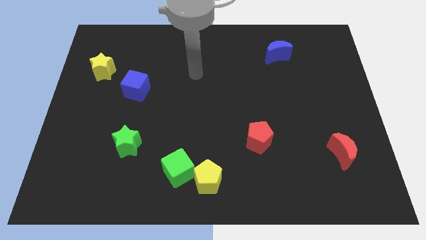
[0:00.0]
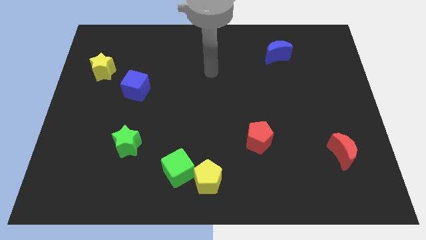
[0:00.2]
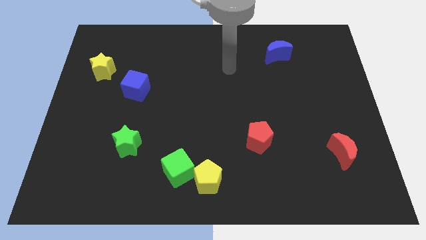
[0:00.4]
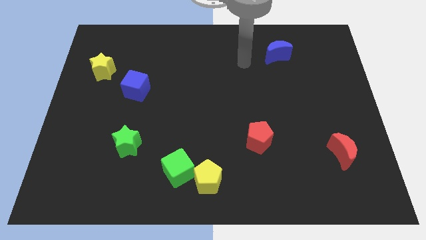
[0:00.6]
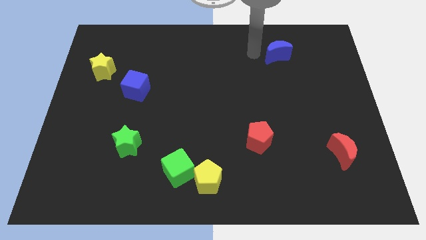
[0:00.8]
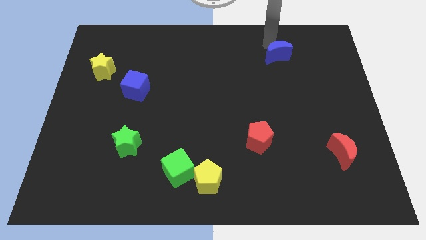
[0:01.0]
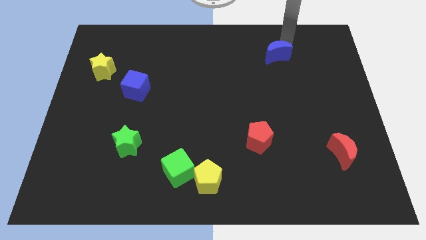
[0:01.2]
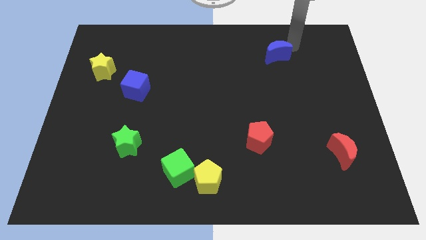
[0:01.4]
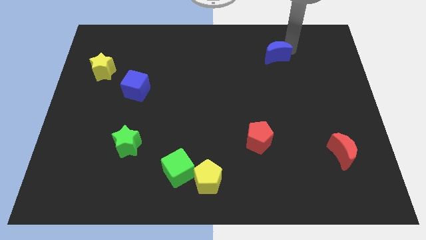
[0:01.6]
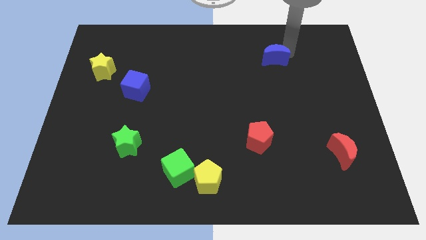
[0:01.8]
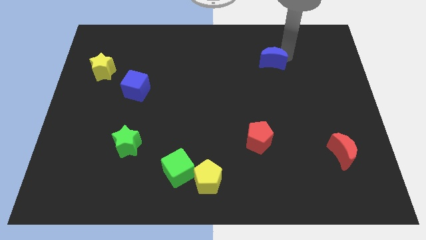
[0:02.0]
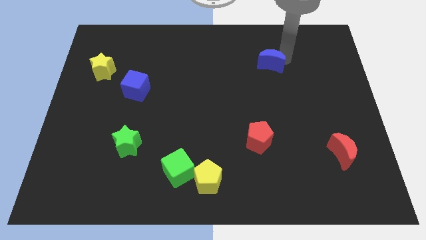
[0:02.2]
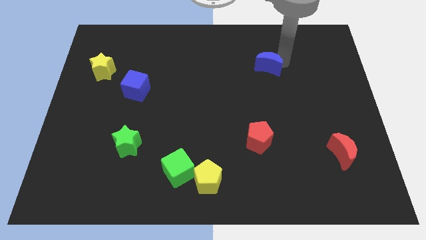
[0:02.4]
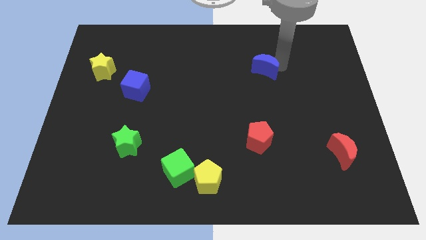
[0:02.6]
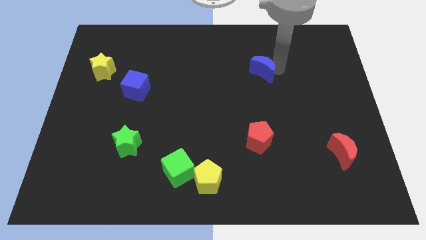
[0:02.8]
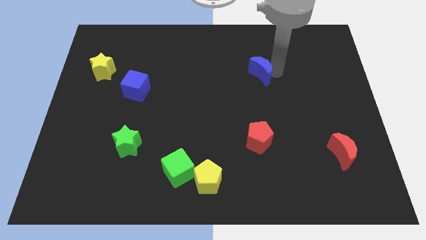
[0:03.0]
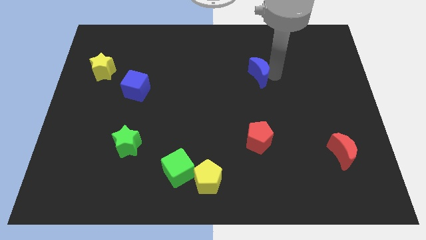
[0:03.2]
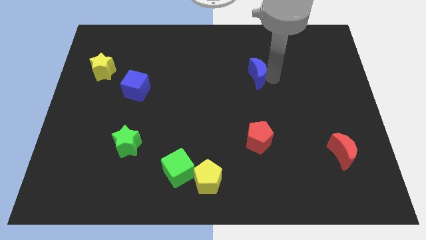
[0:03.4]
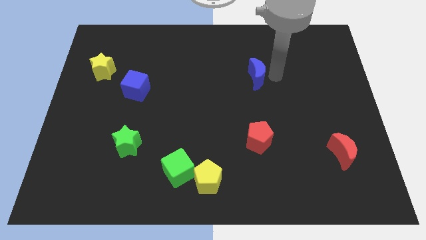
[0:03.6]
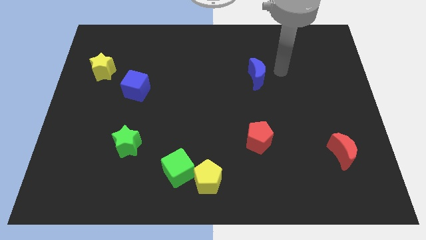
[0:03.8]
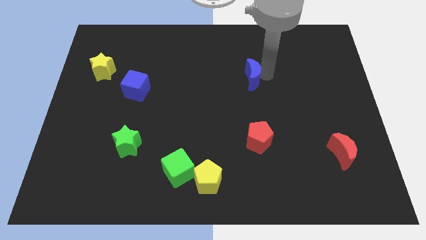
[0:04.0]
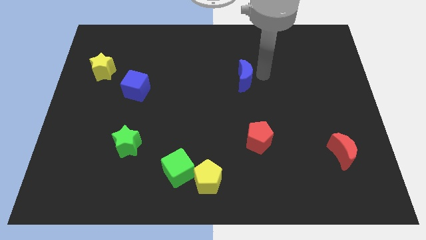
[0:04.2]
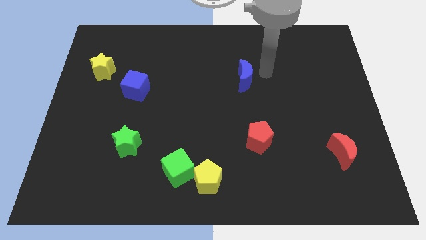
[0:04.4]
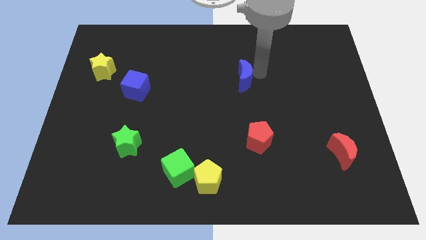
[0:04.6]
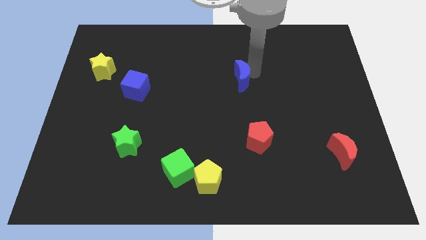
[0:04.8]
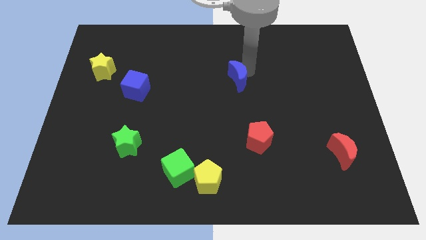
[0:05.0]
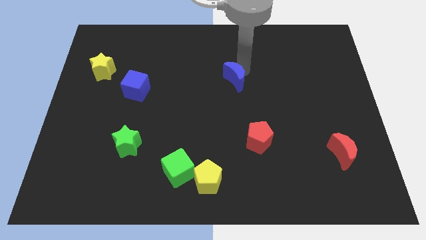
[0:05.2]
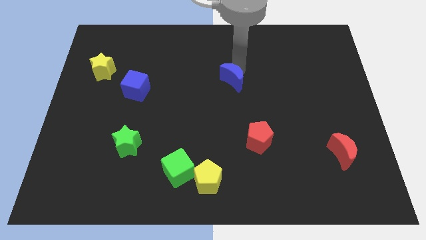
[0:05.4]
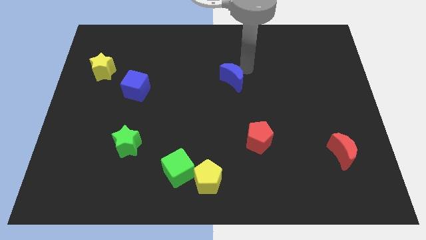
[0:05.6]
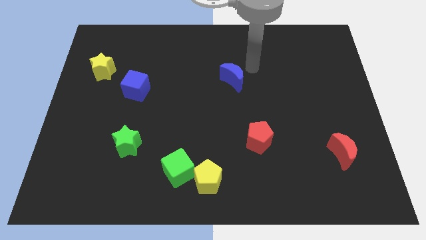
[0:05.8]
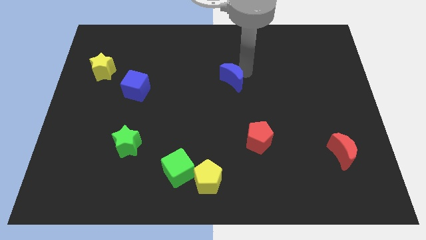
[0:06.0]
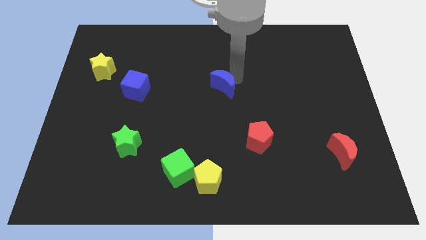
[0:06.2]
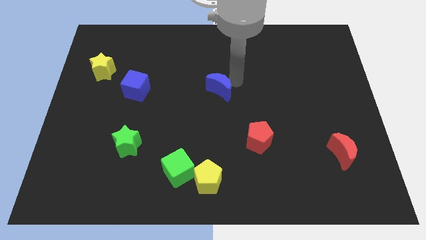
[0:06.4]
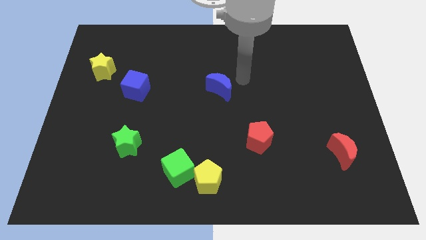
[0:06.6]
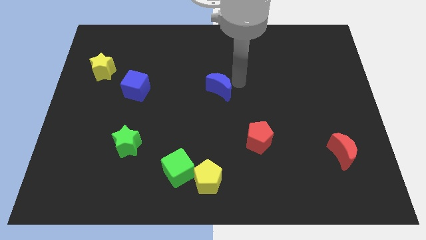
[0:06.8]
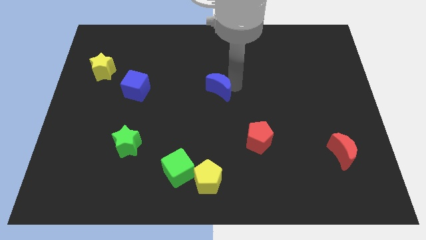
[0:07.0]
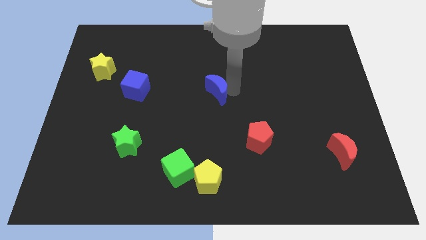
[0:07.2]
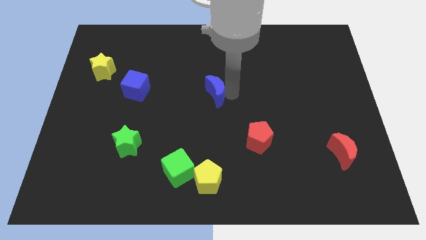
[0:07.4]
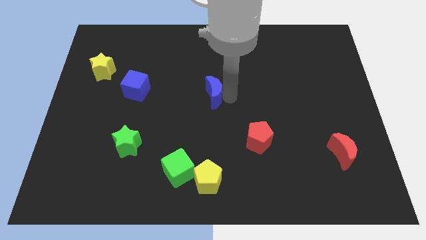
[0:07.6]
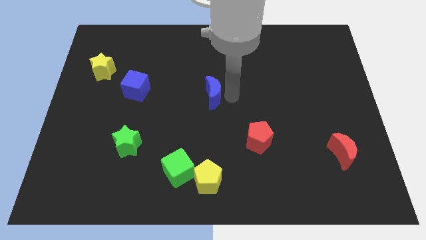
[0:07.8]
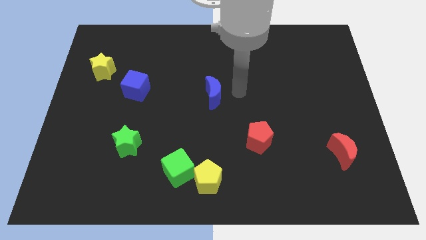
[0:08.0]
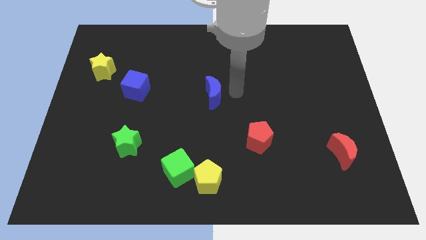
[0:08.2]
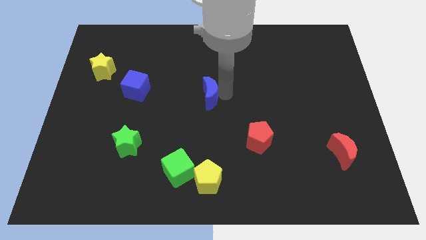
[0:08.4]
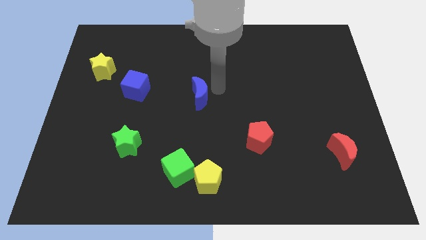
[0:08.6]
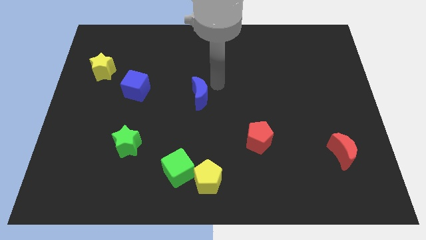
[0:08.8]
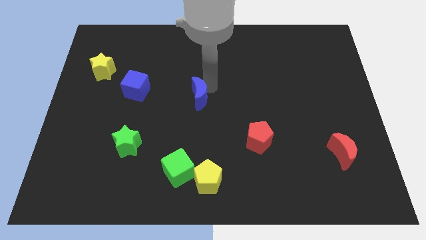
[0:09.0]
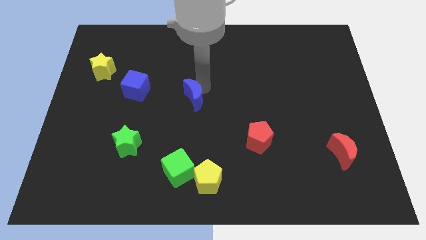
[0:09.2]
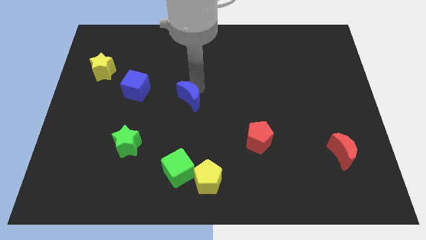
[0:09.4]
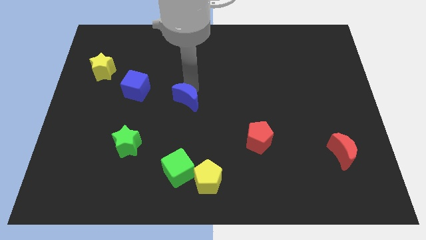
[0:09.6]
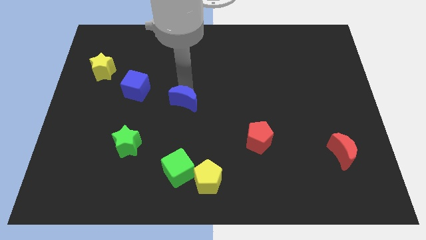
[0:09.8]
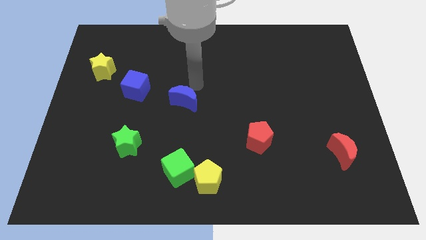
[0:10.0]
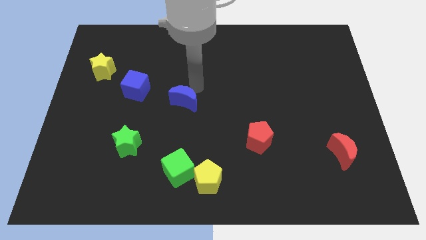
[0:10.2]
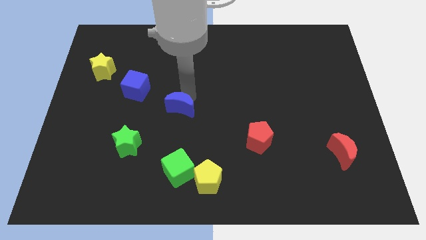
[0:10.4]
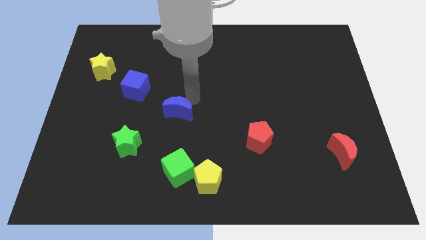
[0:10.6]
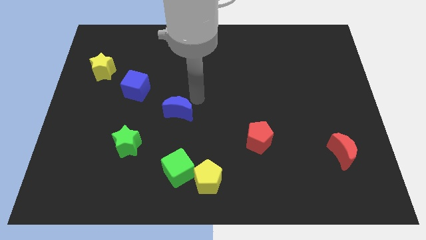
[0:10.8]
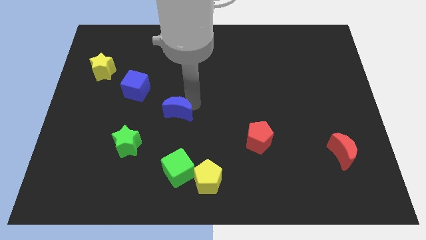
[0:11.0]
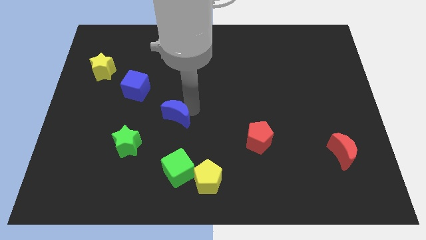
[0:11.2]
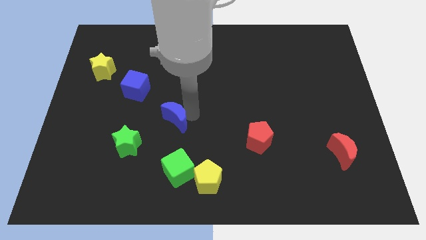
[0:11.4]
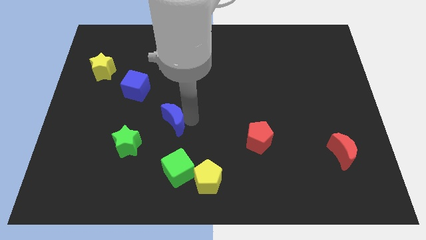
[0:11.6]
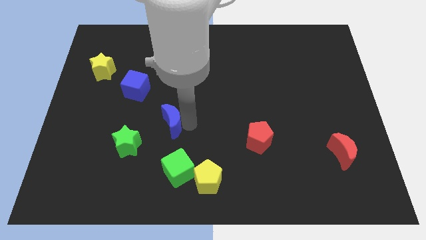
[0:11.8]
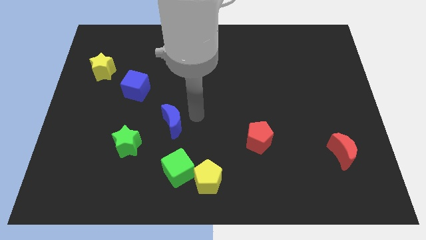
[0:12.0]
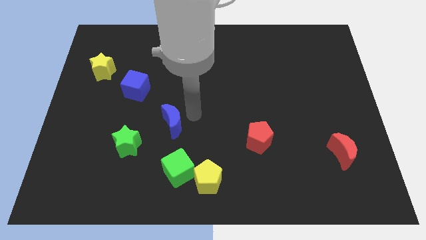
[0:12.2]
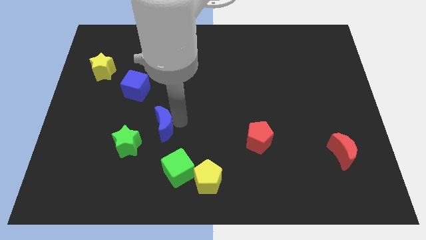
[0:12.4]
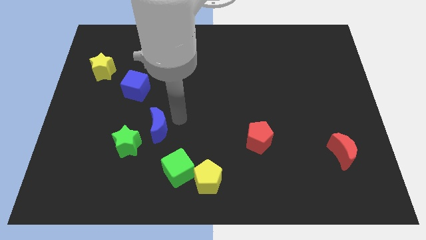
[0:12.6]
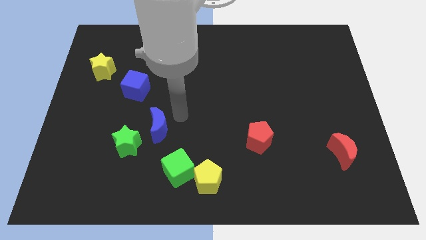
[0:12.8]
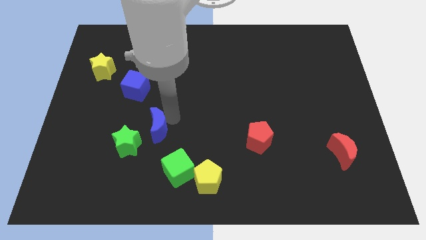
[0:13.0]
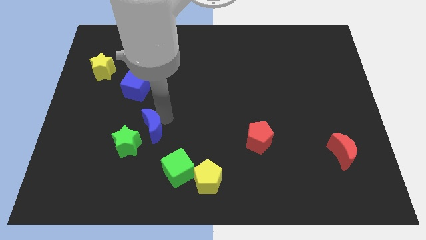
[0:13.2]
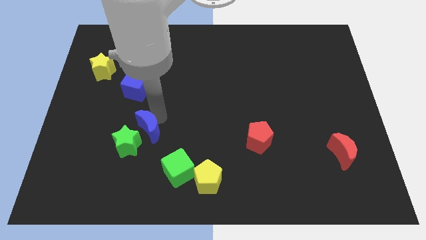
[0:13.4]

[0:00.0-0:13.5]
move the blue moon to the green star

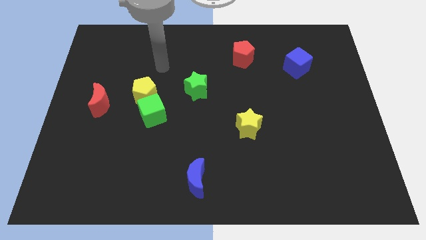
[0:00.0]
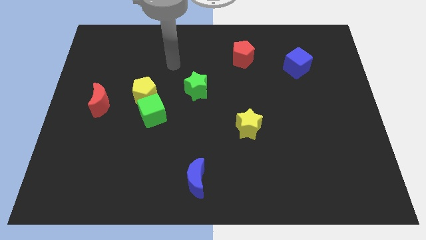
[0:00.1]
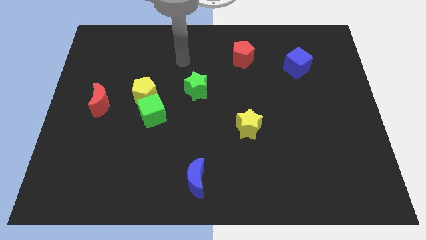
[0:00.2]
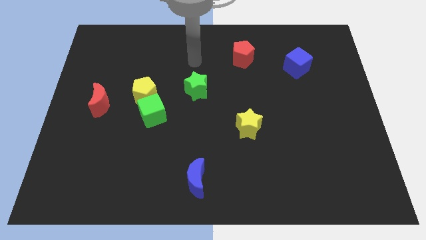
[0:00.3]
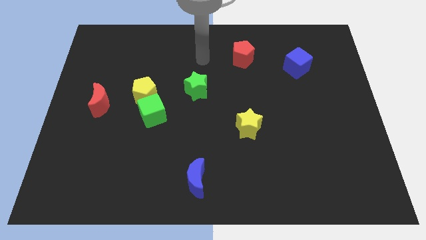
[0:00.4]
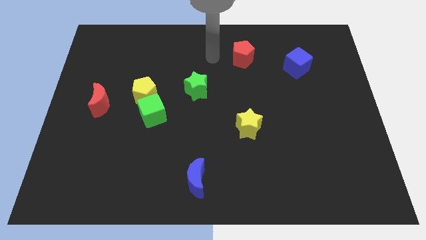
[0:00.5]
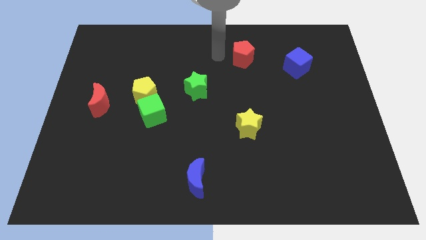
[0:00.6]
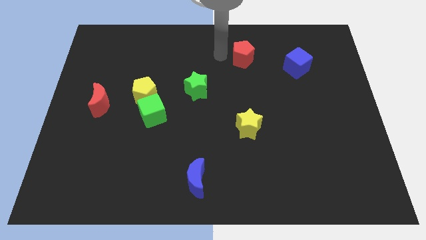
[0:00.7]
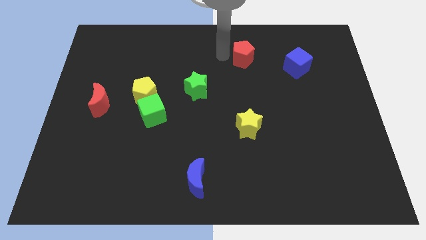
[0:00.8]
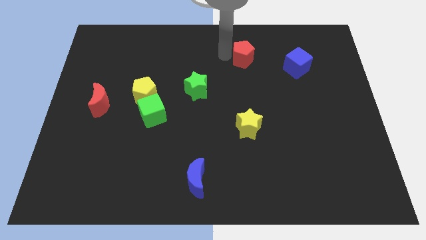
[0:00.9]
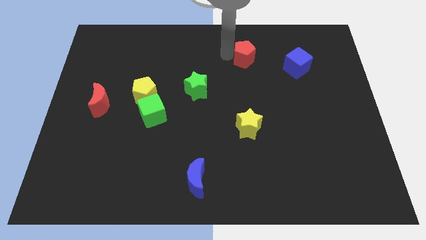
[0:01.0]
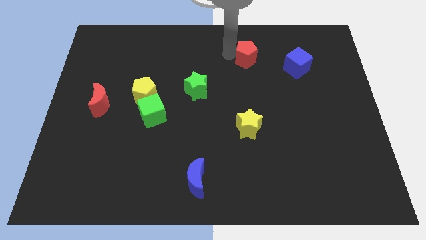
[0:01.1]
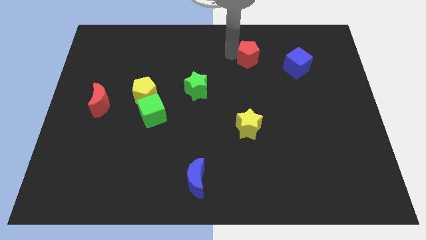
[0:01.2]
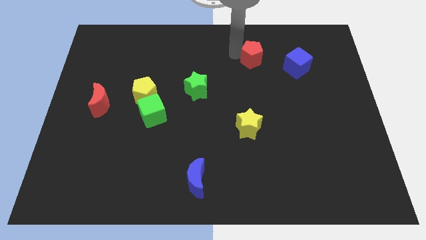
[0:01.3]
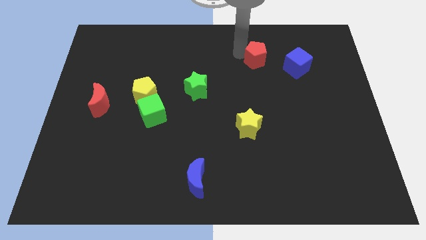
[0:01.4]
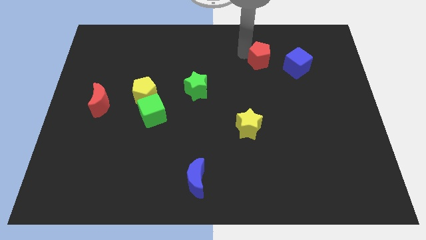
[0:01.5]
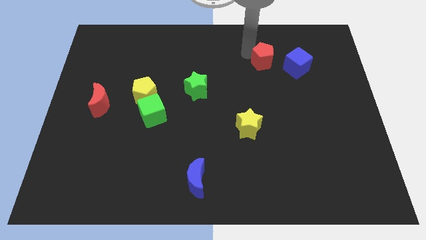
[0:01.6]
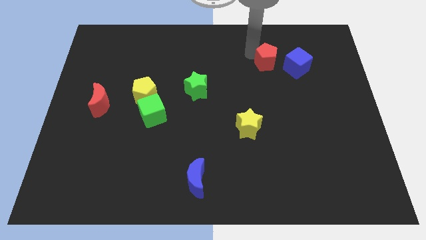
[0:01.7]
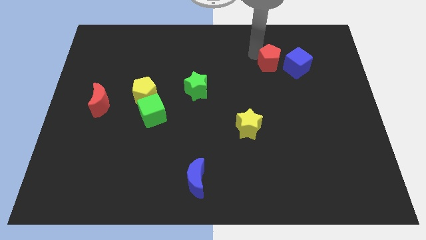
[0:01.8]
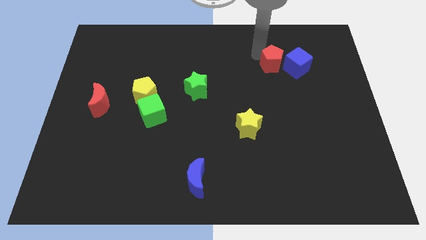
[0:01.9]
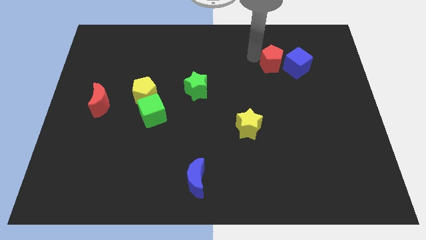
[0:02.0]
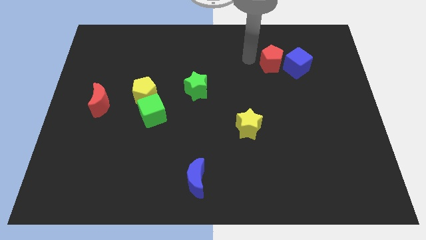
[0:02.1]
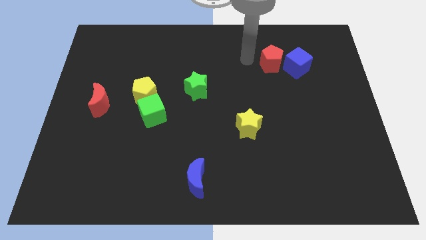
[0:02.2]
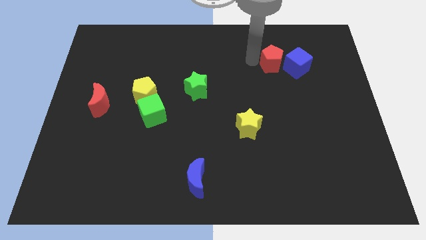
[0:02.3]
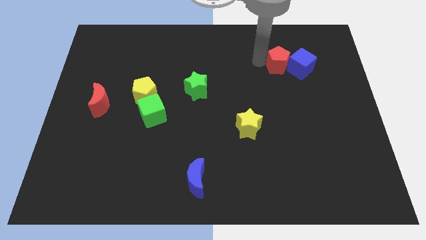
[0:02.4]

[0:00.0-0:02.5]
slide the red pentagon to the blue cube
